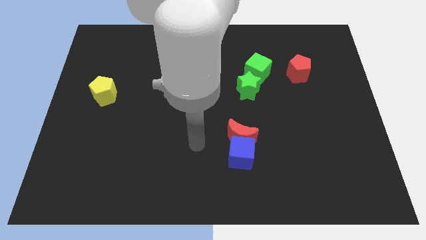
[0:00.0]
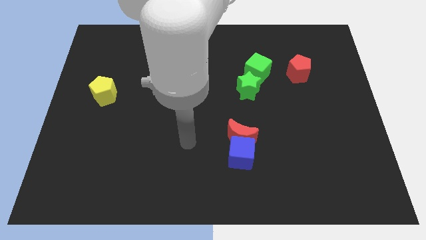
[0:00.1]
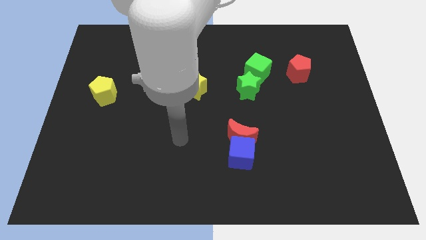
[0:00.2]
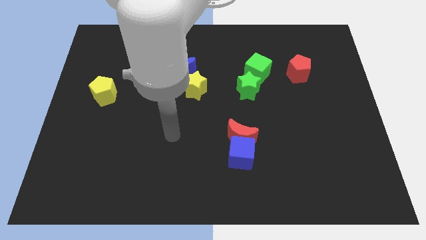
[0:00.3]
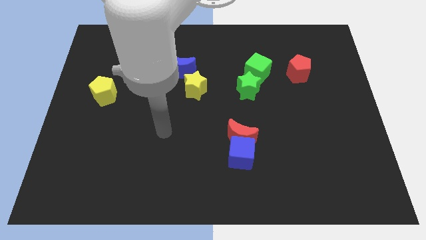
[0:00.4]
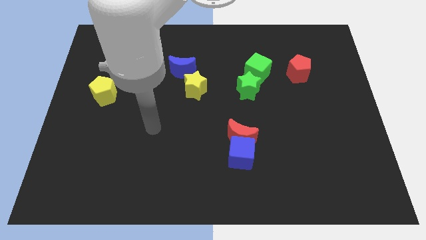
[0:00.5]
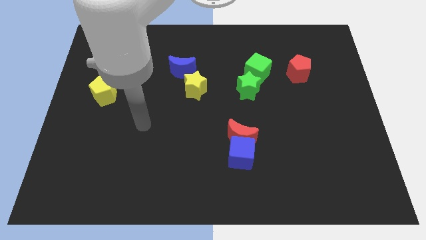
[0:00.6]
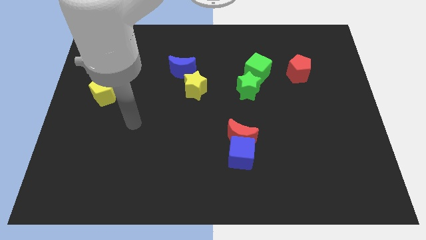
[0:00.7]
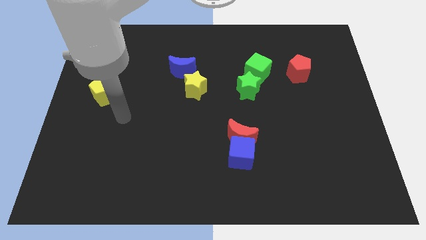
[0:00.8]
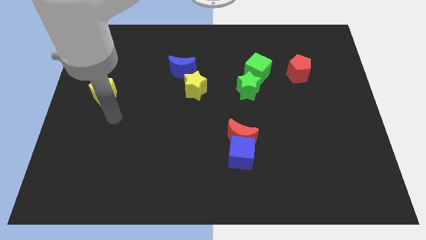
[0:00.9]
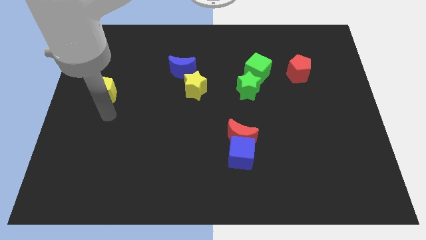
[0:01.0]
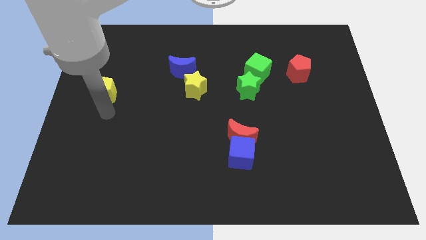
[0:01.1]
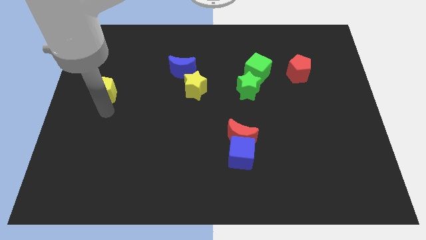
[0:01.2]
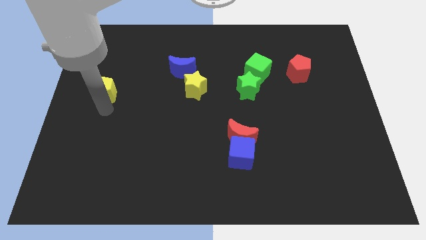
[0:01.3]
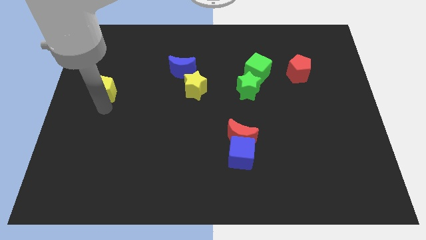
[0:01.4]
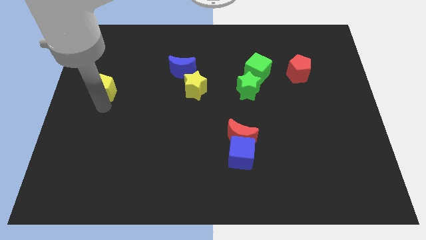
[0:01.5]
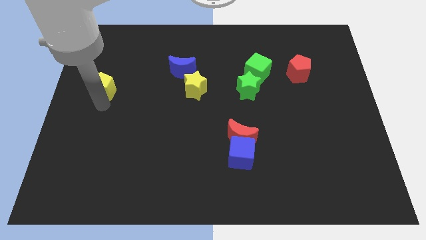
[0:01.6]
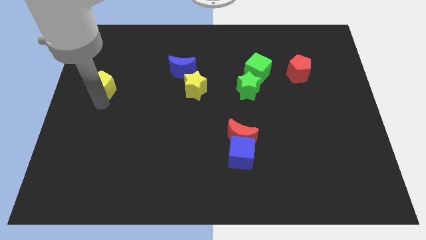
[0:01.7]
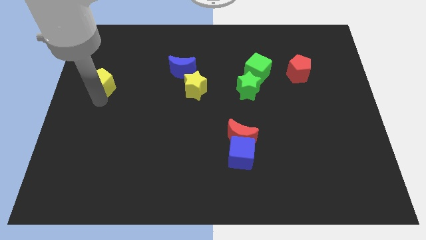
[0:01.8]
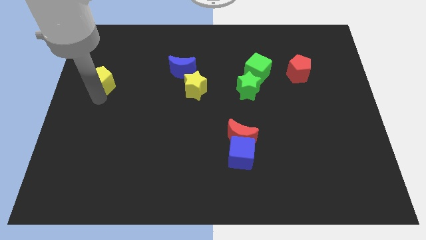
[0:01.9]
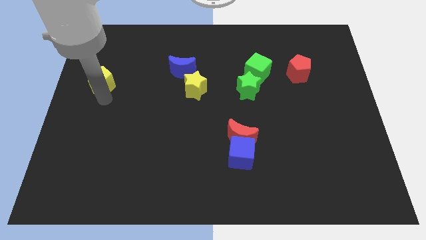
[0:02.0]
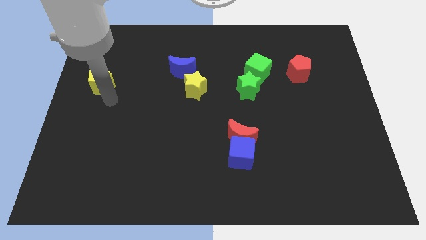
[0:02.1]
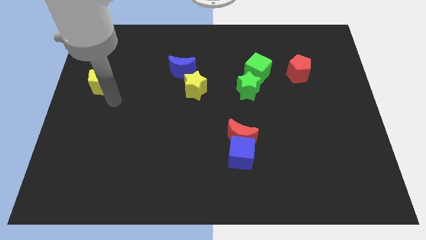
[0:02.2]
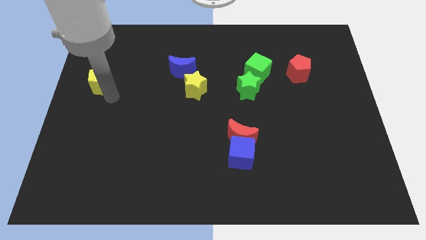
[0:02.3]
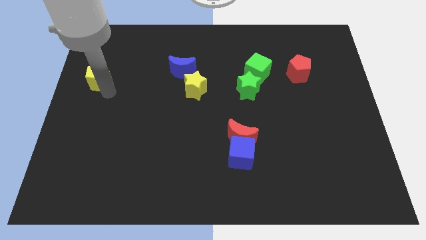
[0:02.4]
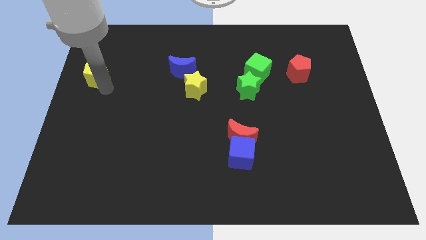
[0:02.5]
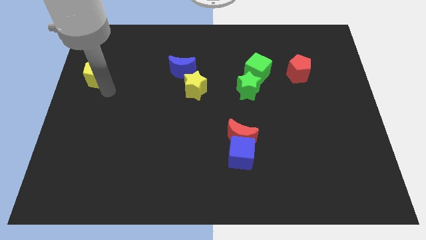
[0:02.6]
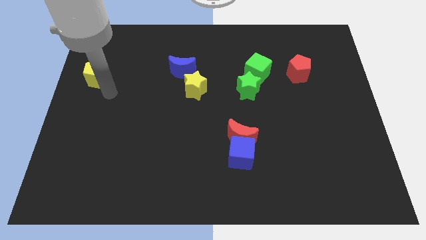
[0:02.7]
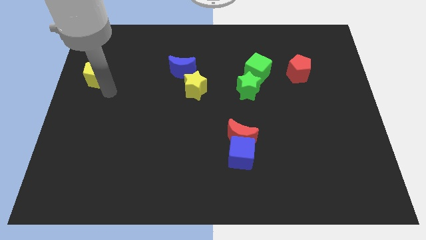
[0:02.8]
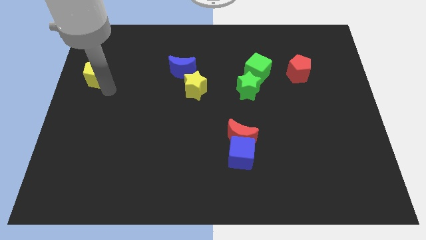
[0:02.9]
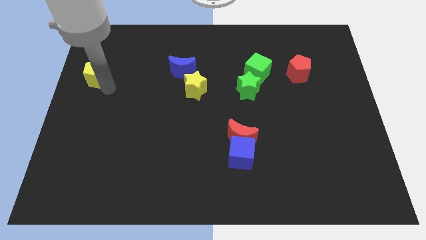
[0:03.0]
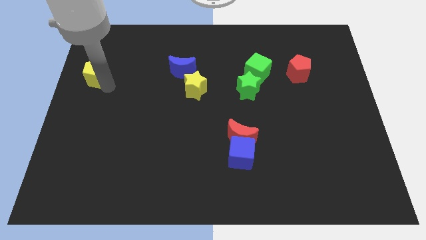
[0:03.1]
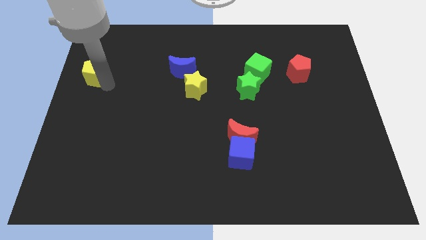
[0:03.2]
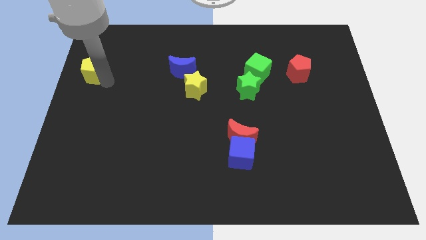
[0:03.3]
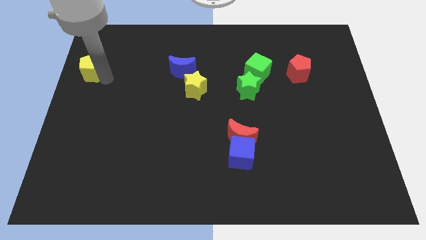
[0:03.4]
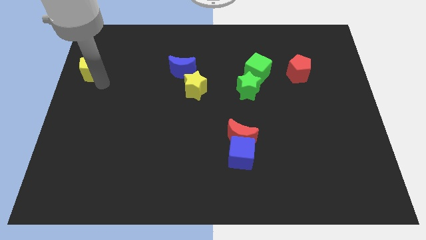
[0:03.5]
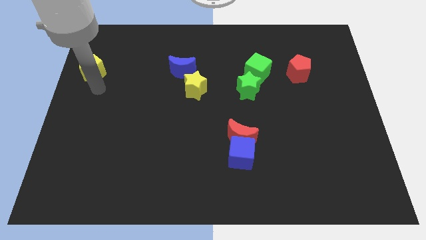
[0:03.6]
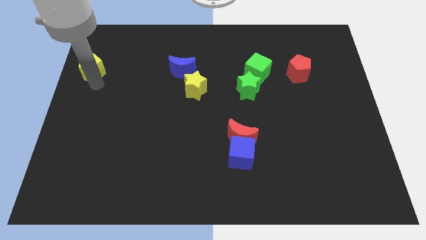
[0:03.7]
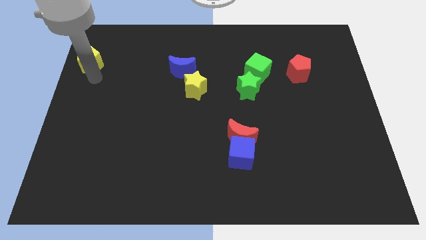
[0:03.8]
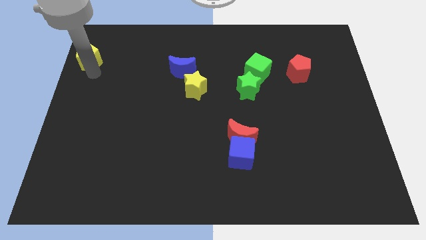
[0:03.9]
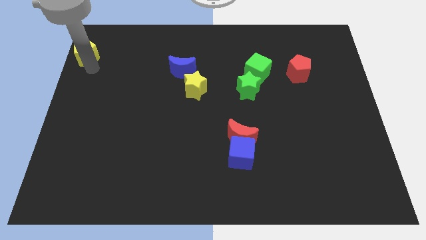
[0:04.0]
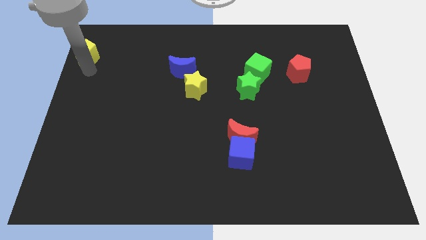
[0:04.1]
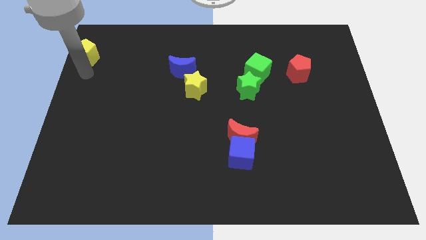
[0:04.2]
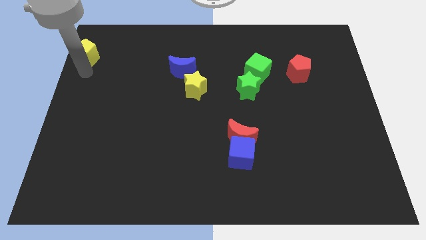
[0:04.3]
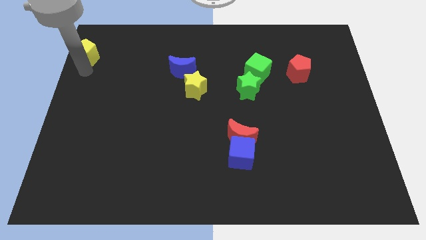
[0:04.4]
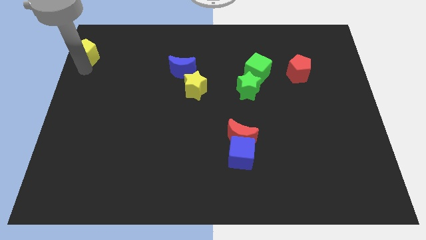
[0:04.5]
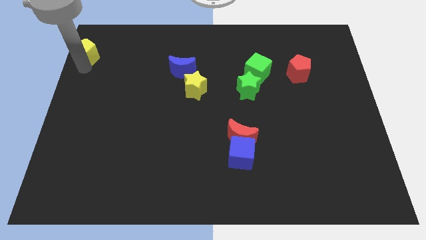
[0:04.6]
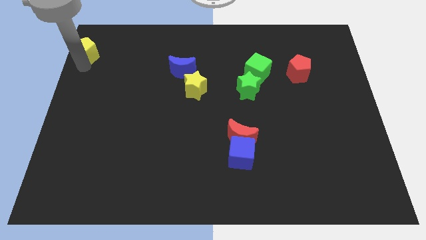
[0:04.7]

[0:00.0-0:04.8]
move the yellow pentagon to the top left of the board

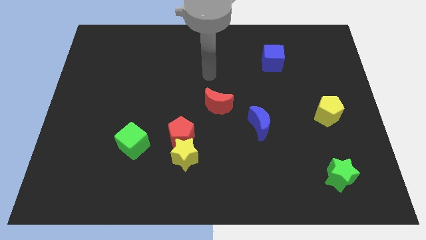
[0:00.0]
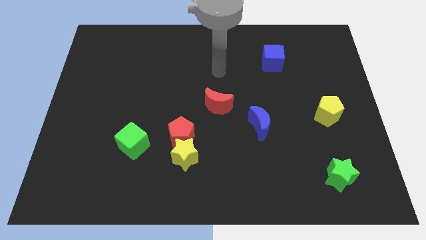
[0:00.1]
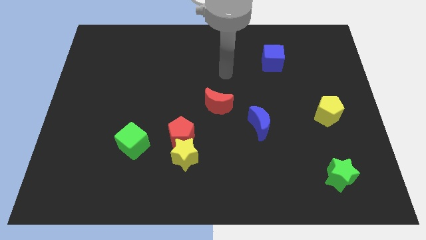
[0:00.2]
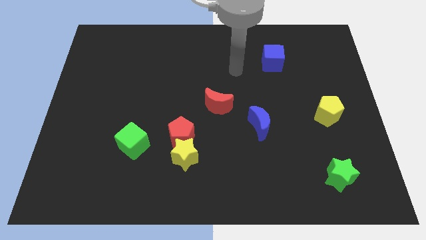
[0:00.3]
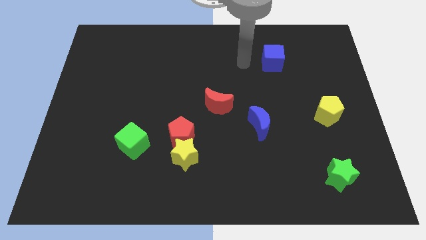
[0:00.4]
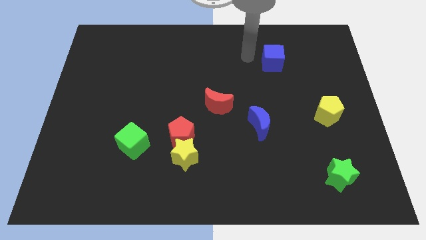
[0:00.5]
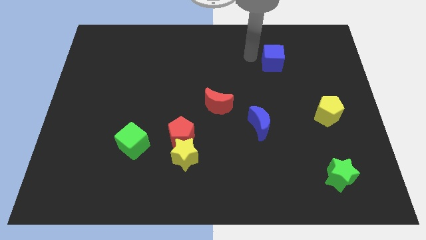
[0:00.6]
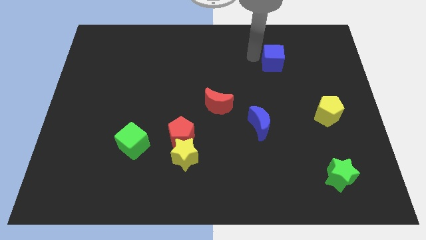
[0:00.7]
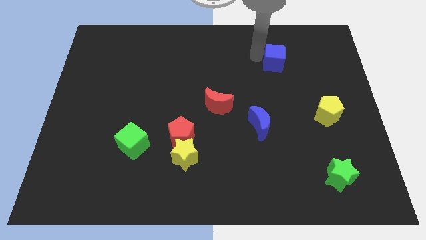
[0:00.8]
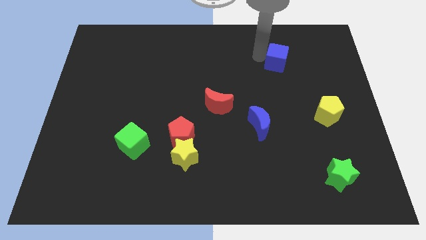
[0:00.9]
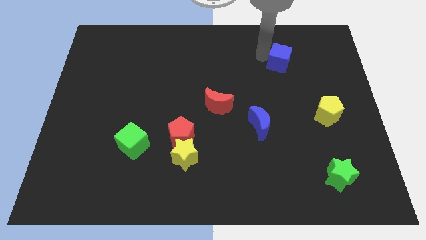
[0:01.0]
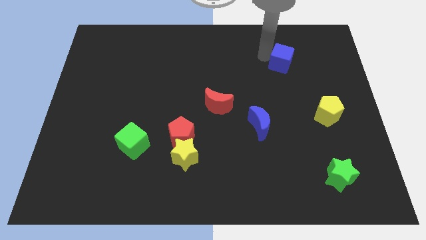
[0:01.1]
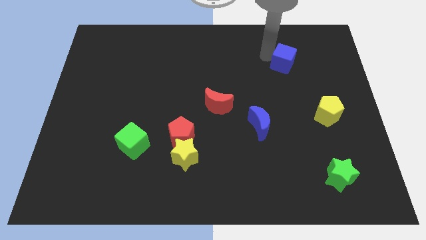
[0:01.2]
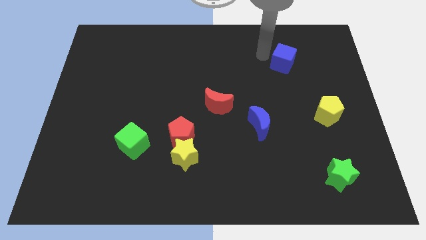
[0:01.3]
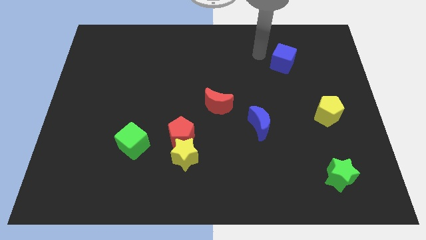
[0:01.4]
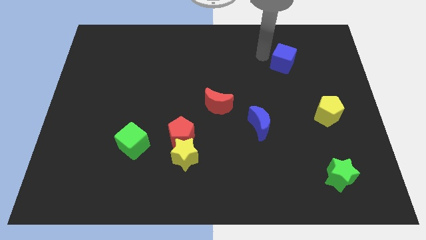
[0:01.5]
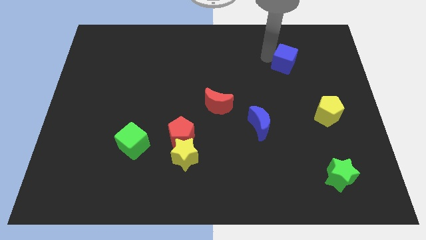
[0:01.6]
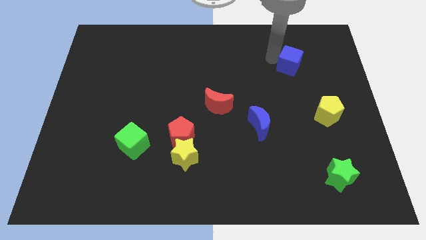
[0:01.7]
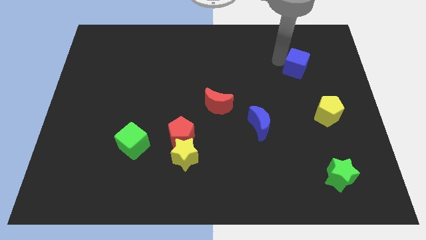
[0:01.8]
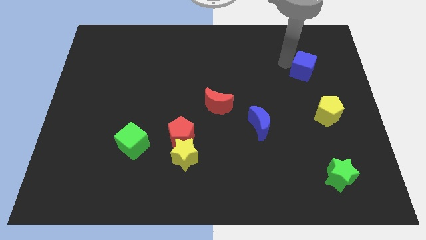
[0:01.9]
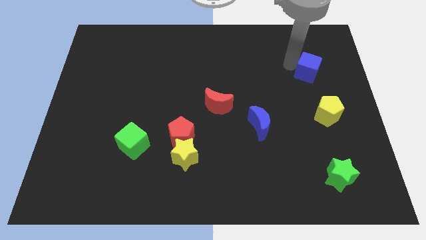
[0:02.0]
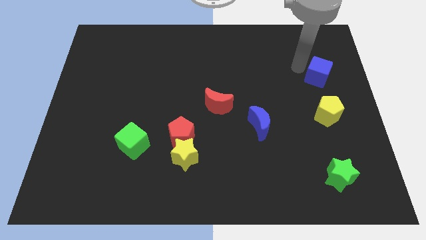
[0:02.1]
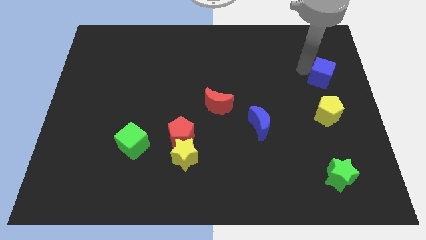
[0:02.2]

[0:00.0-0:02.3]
put the blue cube to the right side of the board

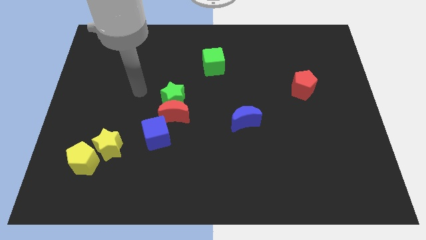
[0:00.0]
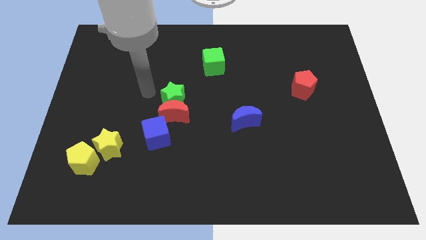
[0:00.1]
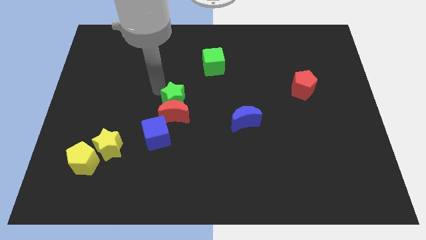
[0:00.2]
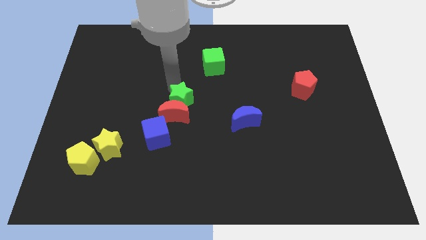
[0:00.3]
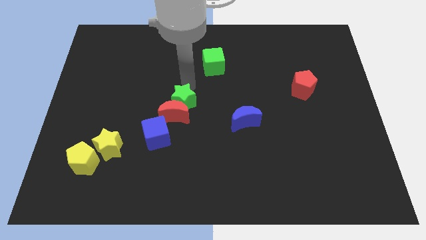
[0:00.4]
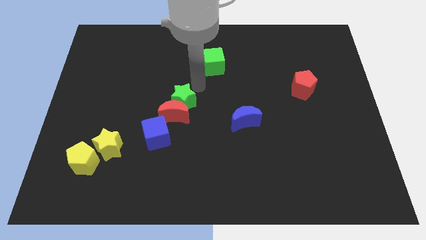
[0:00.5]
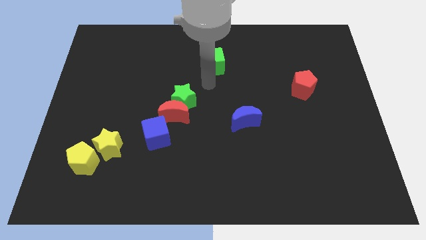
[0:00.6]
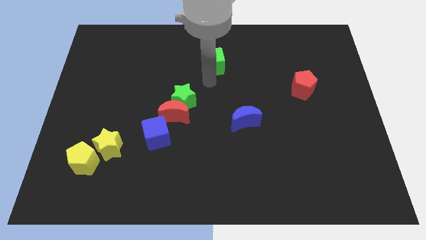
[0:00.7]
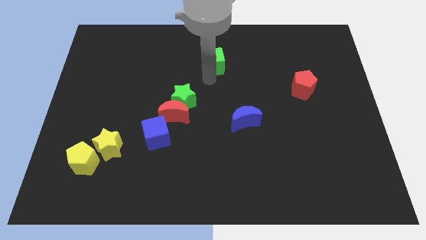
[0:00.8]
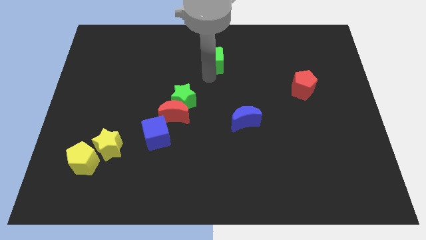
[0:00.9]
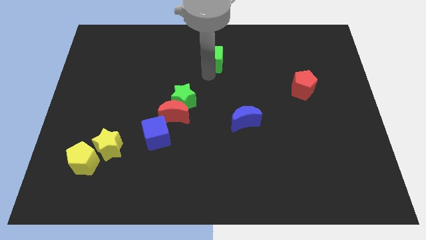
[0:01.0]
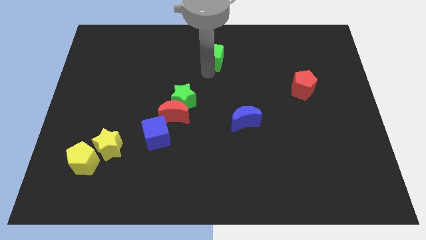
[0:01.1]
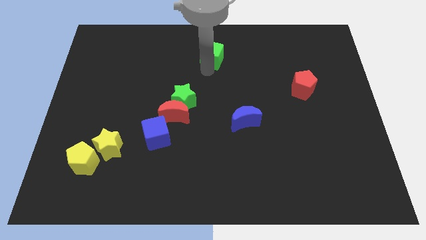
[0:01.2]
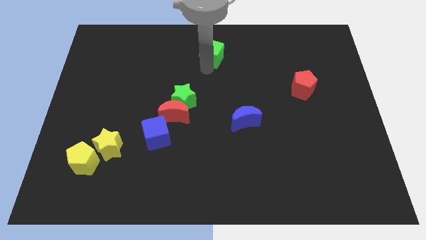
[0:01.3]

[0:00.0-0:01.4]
push the green cube to the top
